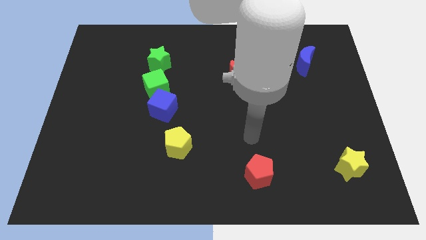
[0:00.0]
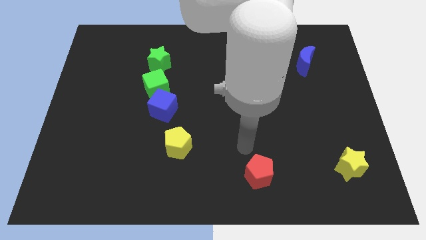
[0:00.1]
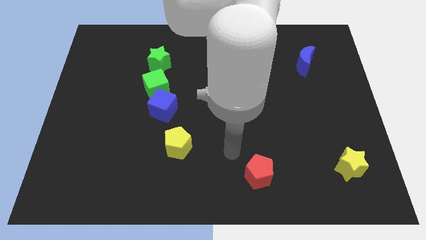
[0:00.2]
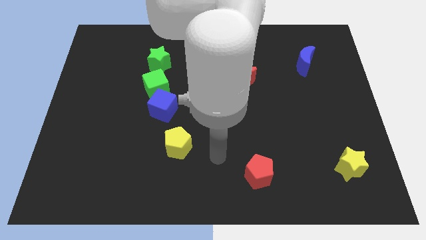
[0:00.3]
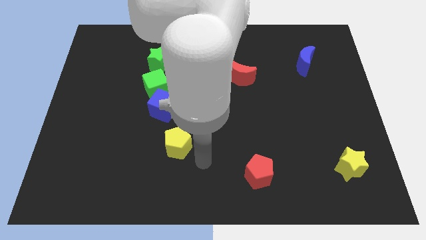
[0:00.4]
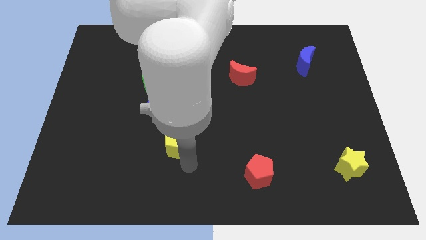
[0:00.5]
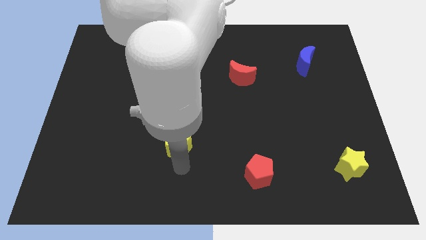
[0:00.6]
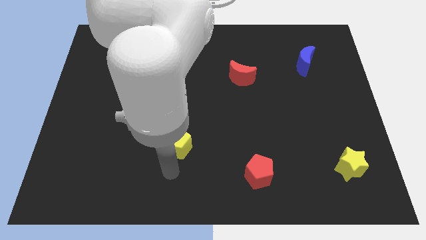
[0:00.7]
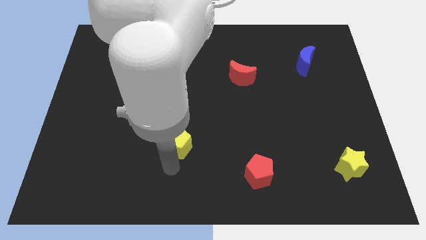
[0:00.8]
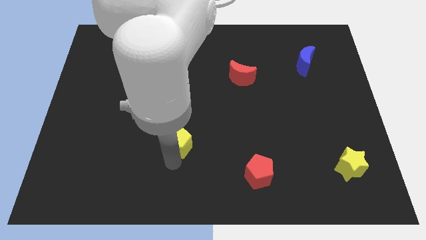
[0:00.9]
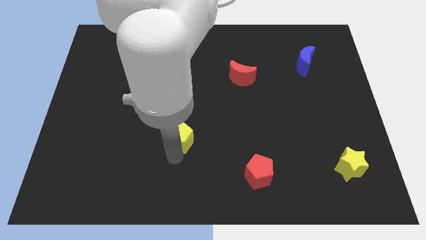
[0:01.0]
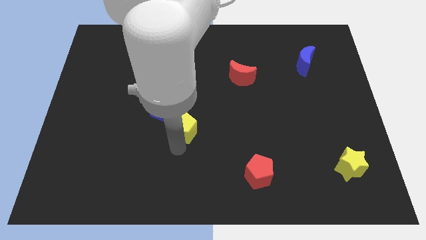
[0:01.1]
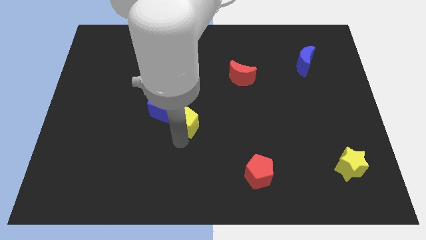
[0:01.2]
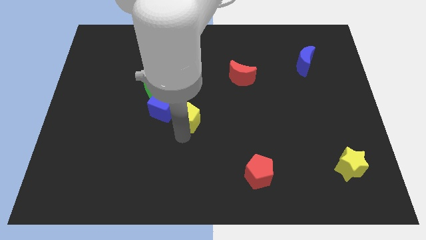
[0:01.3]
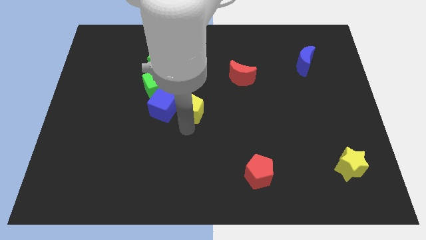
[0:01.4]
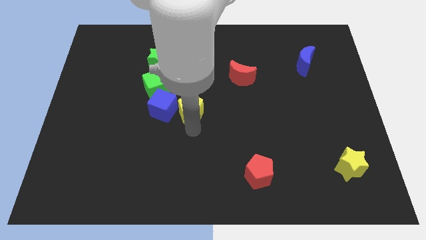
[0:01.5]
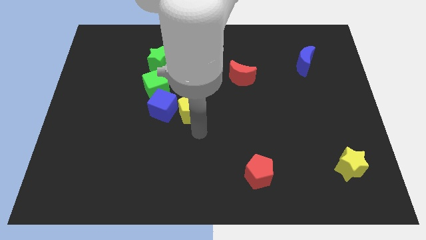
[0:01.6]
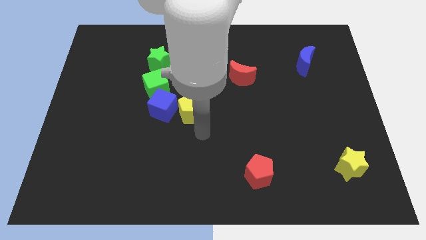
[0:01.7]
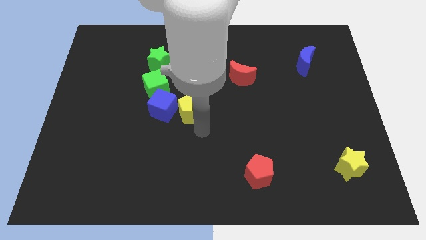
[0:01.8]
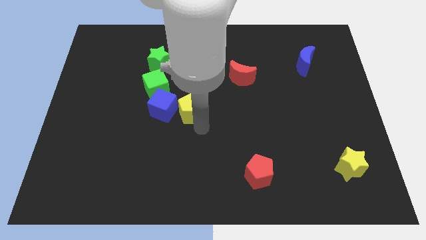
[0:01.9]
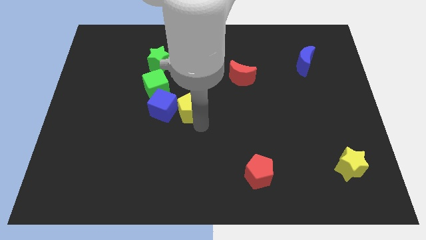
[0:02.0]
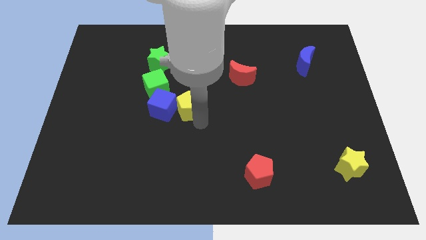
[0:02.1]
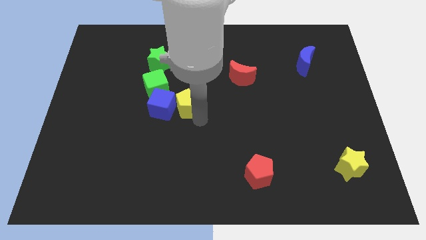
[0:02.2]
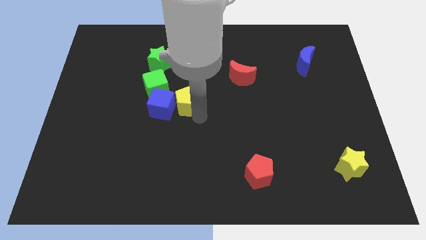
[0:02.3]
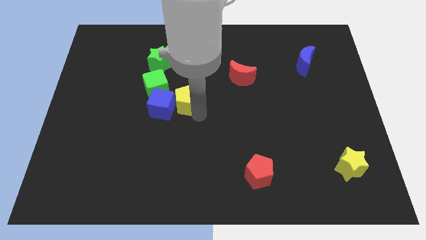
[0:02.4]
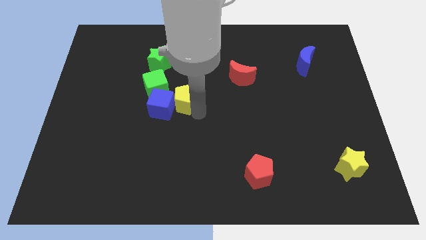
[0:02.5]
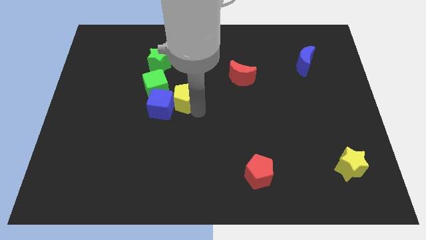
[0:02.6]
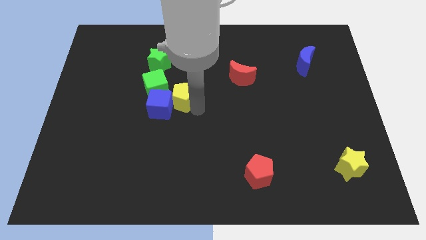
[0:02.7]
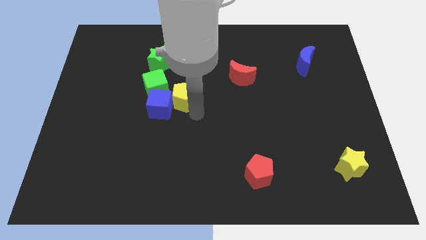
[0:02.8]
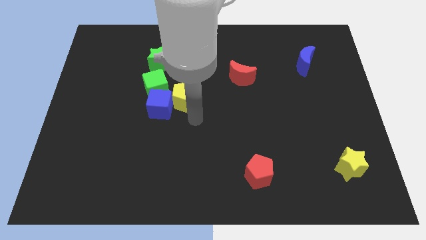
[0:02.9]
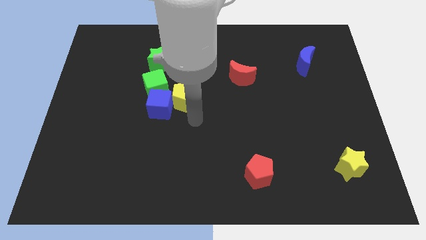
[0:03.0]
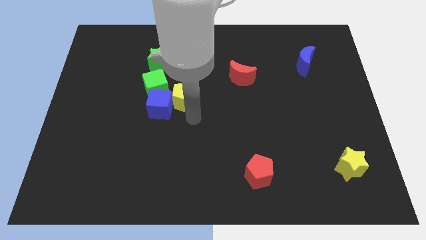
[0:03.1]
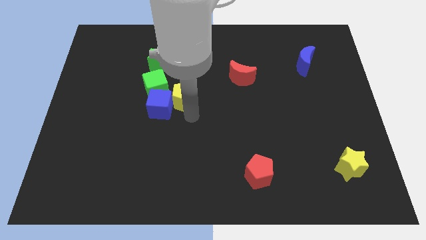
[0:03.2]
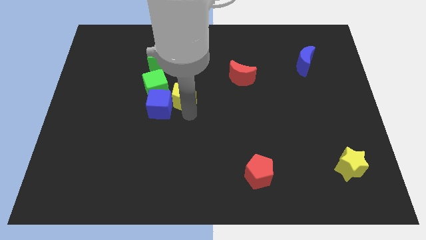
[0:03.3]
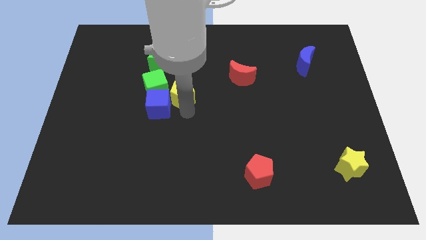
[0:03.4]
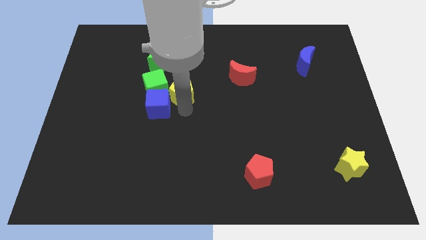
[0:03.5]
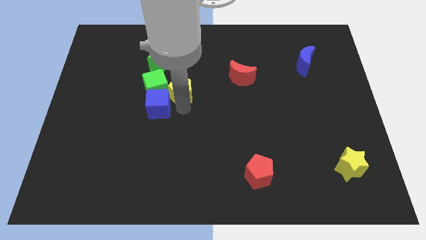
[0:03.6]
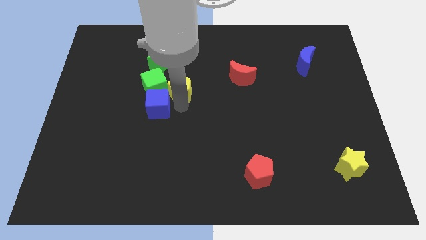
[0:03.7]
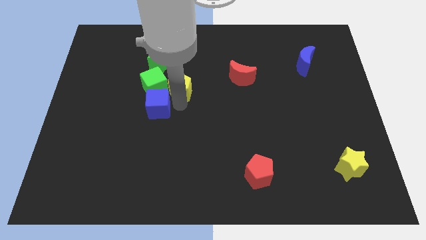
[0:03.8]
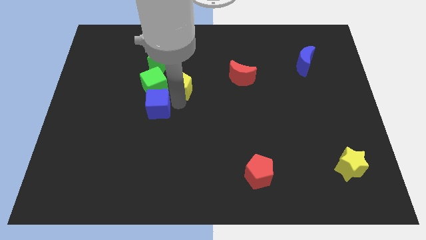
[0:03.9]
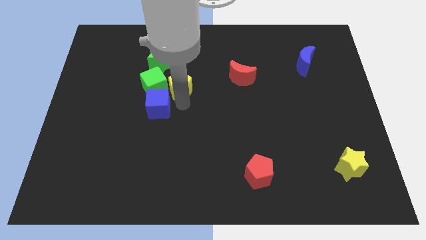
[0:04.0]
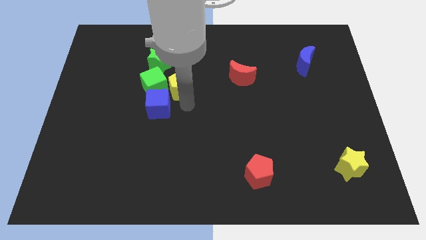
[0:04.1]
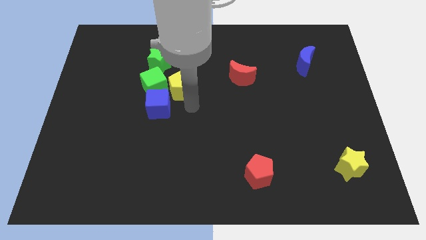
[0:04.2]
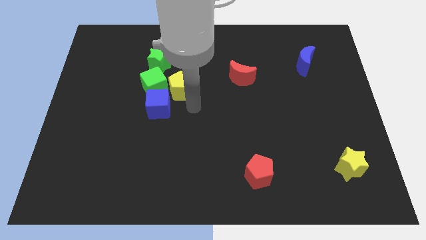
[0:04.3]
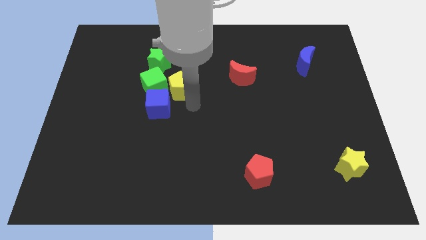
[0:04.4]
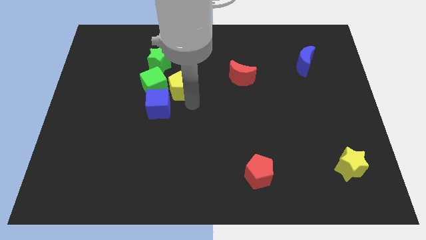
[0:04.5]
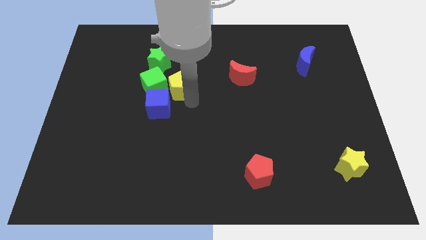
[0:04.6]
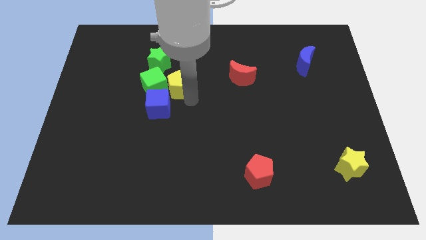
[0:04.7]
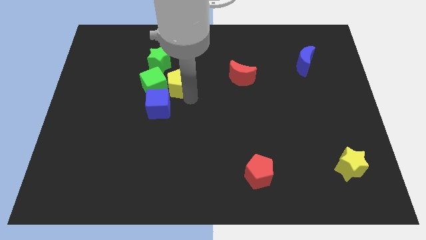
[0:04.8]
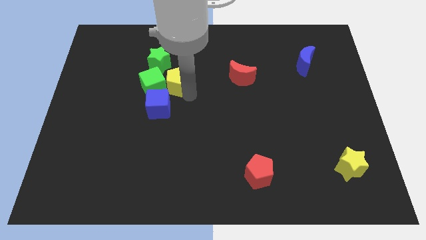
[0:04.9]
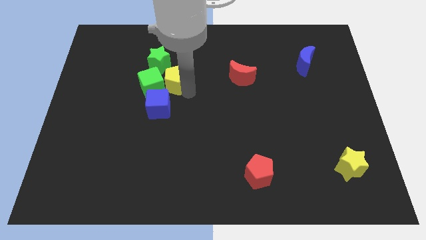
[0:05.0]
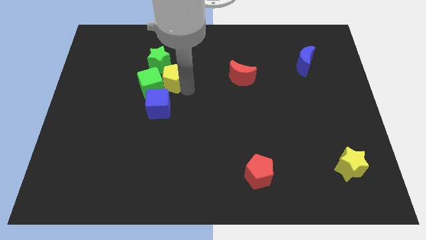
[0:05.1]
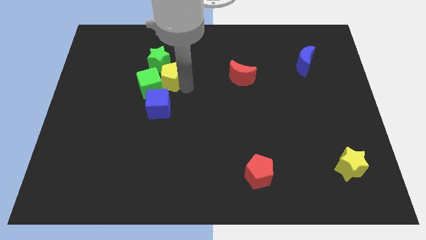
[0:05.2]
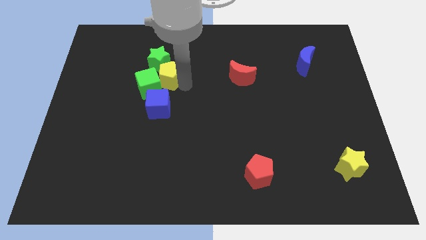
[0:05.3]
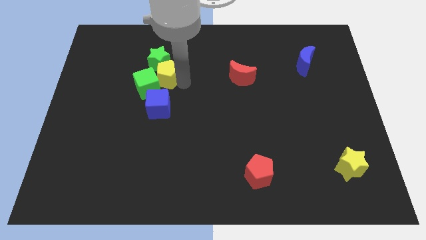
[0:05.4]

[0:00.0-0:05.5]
push the yellow pentagon close to the green star

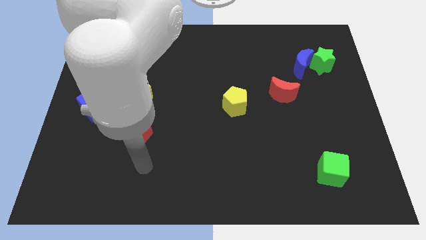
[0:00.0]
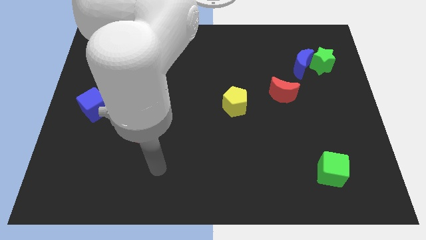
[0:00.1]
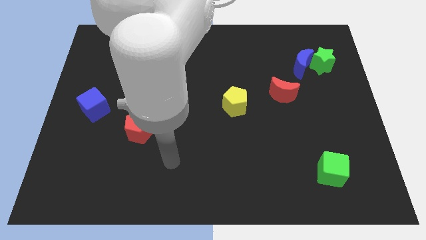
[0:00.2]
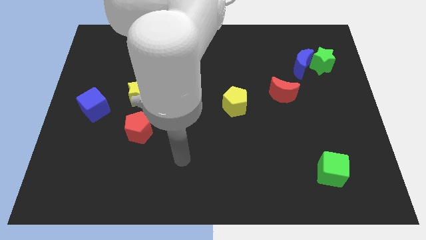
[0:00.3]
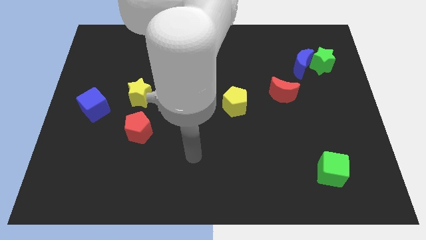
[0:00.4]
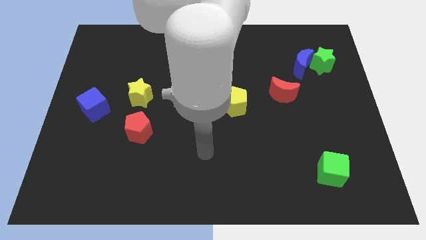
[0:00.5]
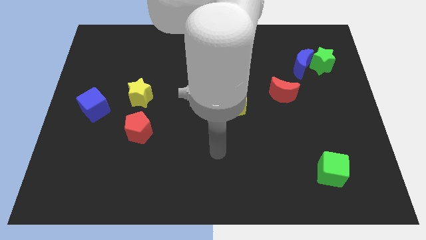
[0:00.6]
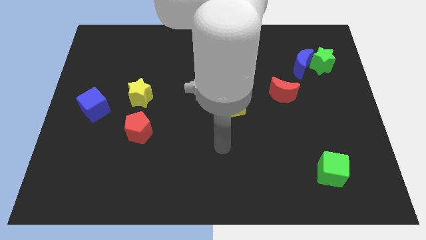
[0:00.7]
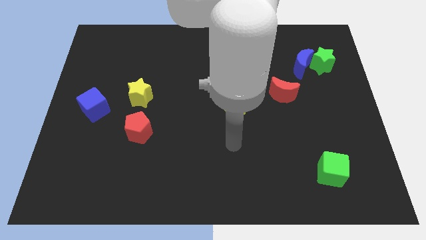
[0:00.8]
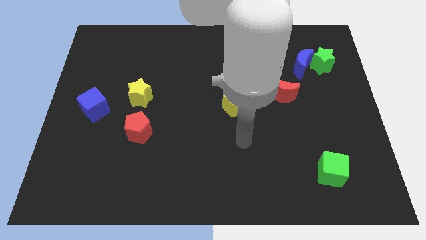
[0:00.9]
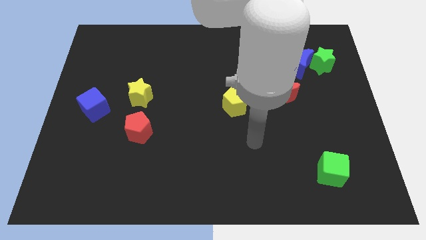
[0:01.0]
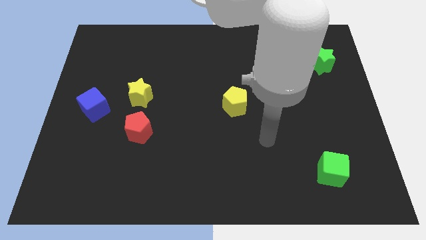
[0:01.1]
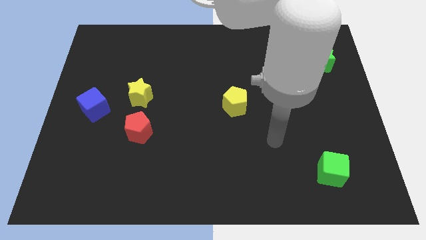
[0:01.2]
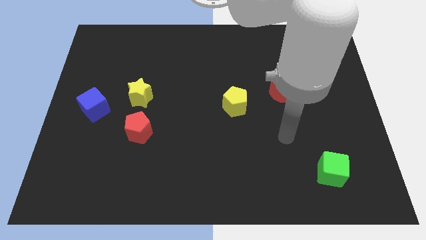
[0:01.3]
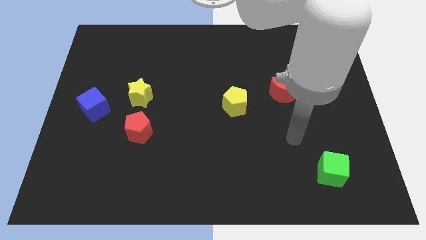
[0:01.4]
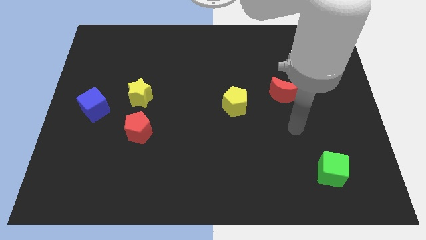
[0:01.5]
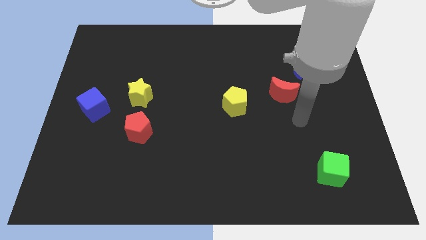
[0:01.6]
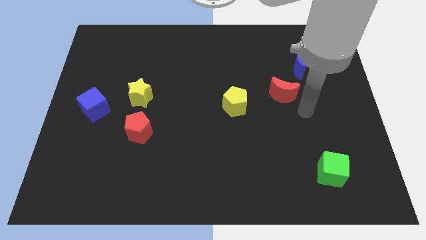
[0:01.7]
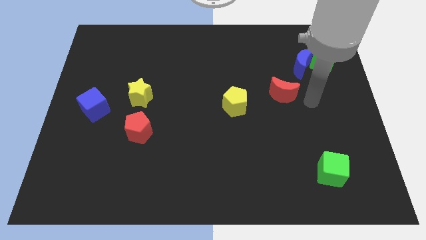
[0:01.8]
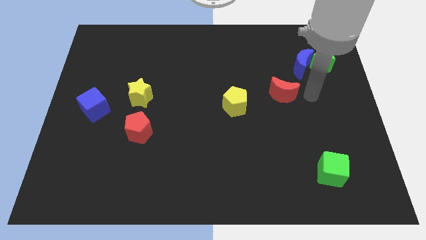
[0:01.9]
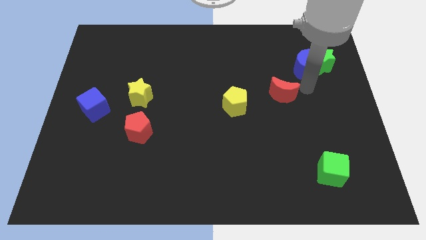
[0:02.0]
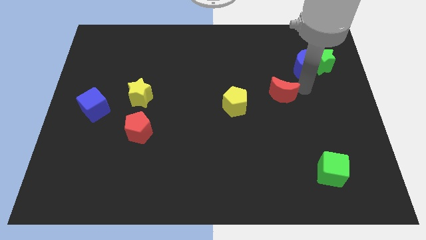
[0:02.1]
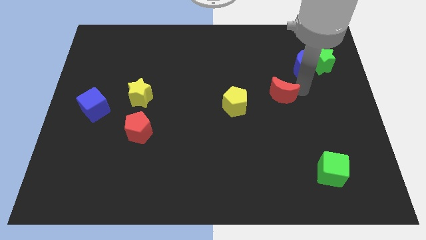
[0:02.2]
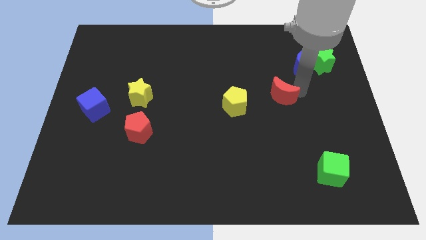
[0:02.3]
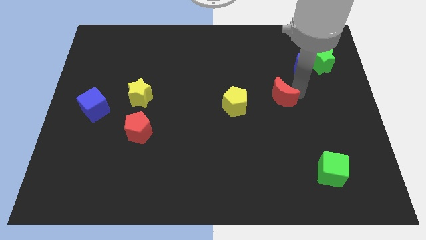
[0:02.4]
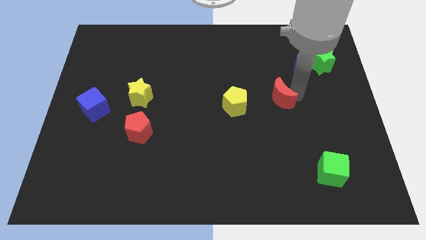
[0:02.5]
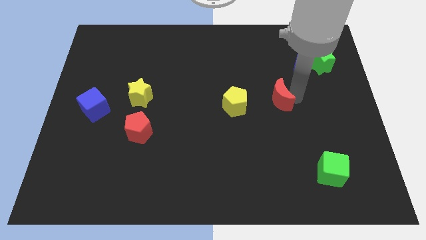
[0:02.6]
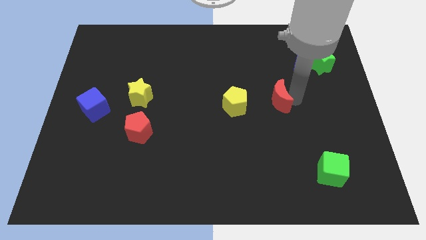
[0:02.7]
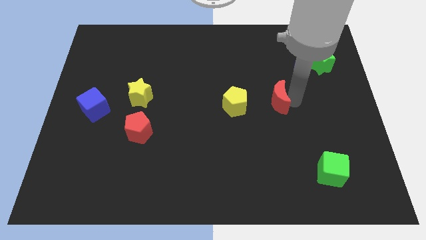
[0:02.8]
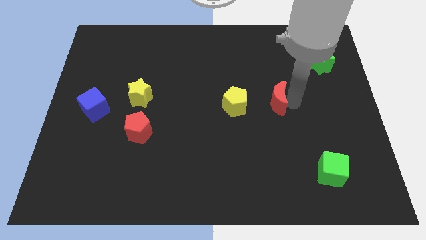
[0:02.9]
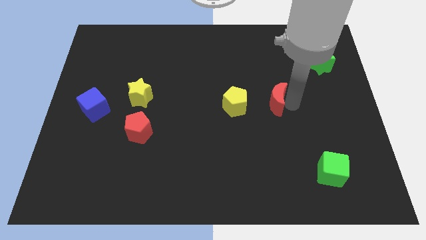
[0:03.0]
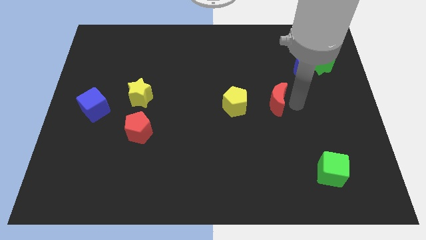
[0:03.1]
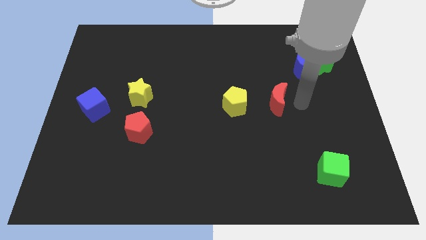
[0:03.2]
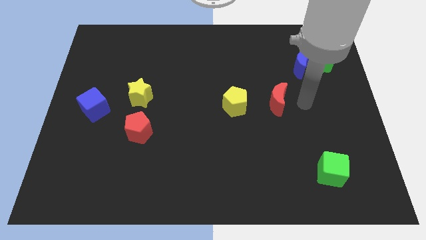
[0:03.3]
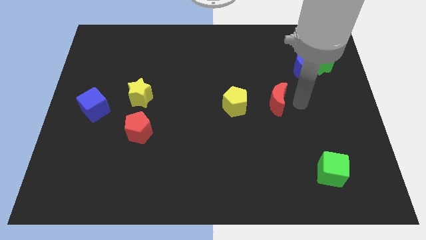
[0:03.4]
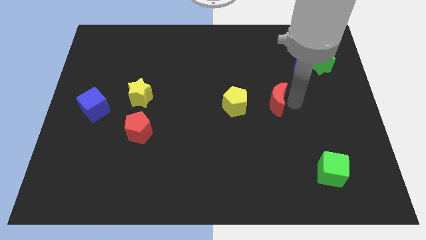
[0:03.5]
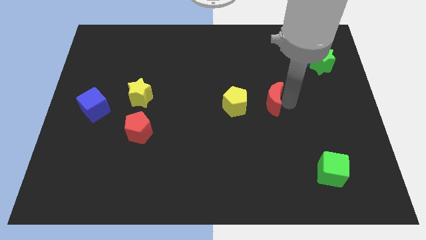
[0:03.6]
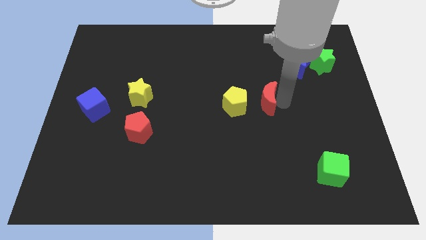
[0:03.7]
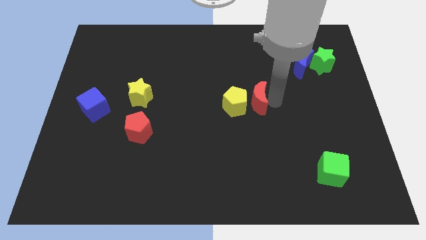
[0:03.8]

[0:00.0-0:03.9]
slide the red moon next to the yellow pentagon
